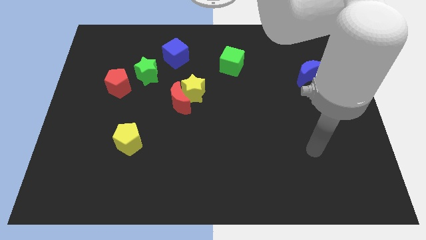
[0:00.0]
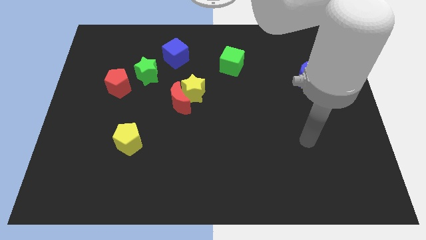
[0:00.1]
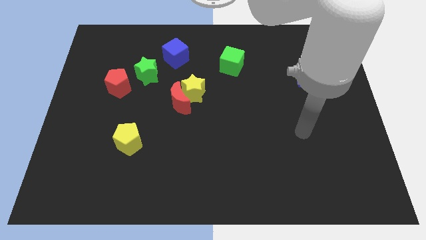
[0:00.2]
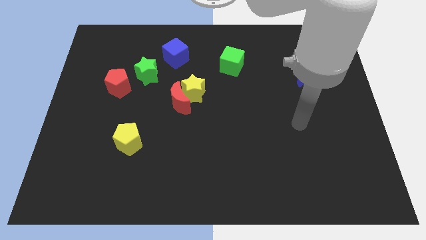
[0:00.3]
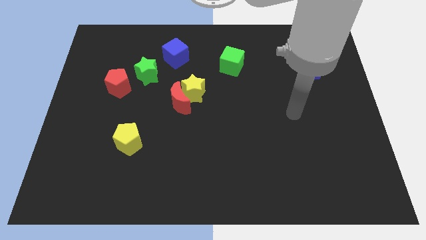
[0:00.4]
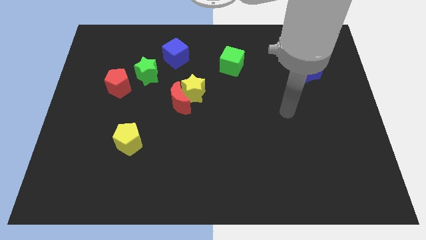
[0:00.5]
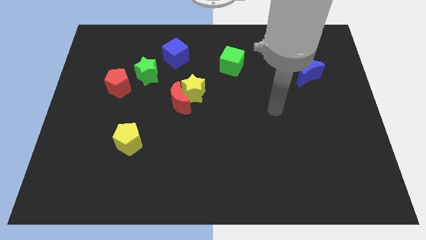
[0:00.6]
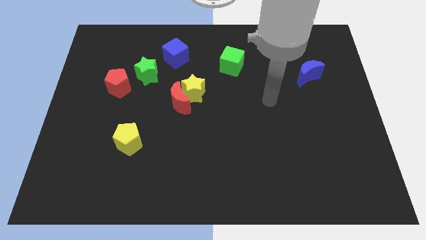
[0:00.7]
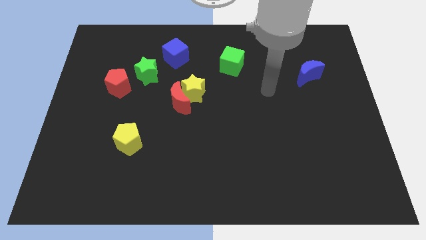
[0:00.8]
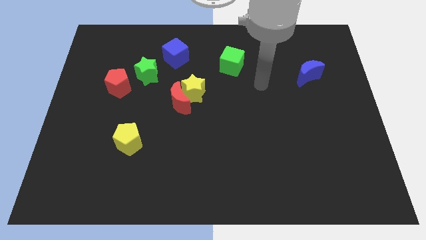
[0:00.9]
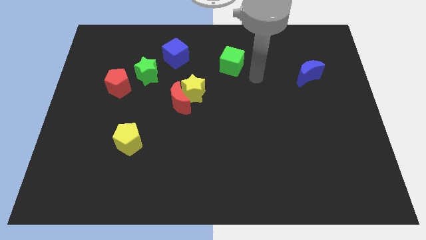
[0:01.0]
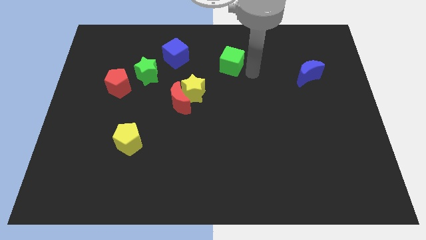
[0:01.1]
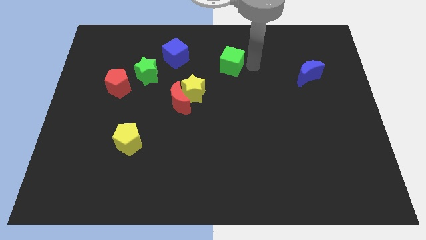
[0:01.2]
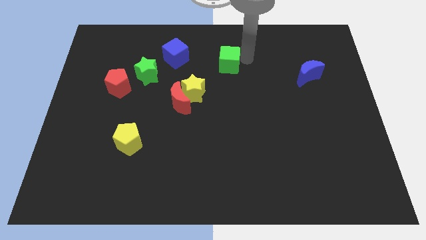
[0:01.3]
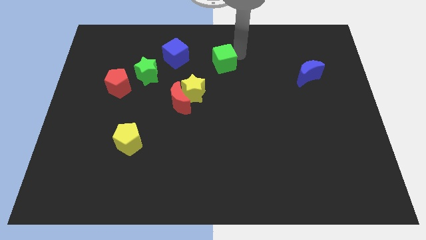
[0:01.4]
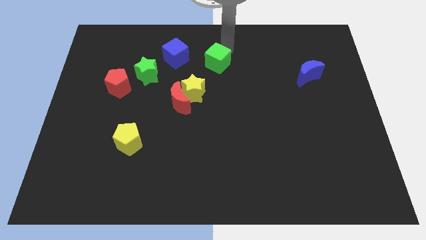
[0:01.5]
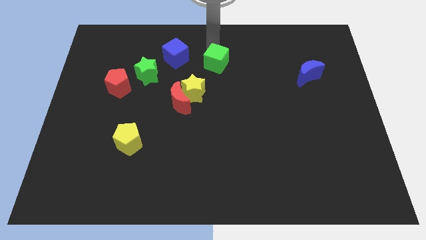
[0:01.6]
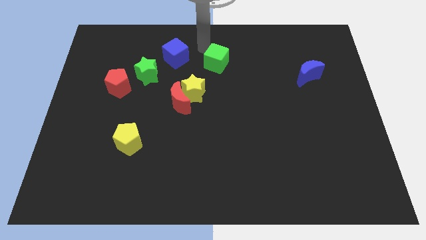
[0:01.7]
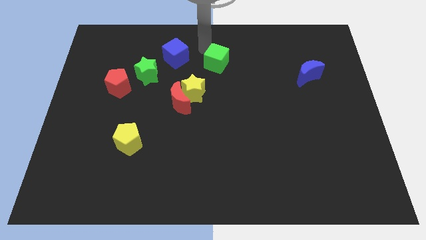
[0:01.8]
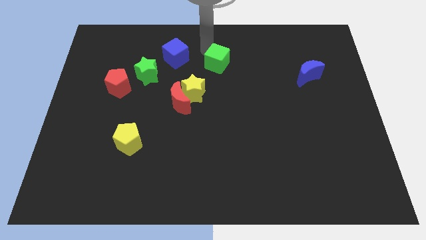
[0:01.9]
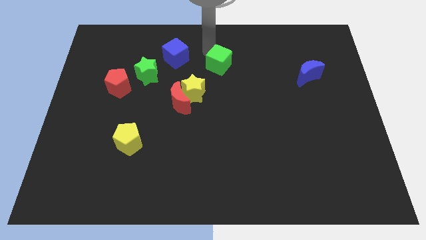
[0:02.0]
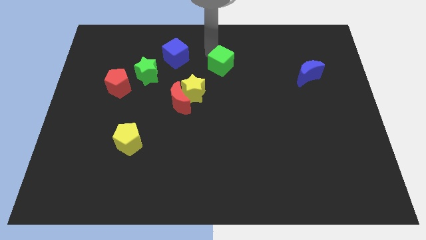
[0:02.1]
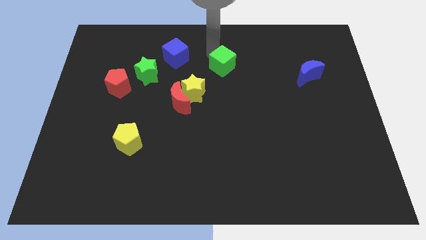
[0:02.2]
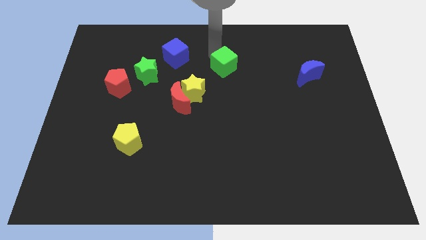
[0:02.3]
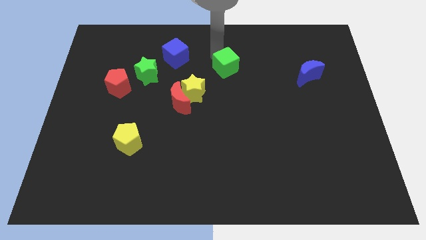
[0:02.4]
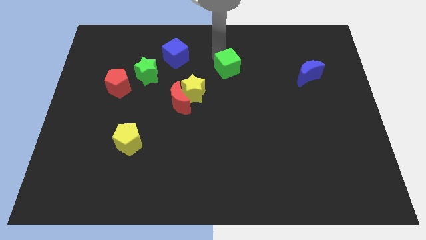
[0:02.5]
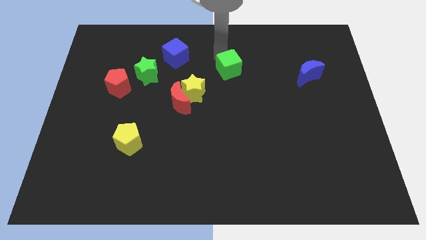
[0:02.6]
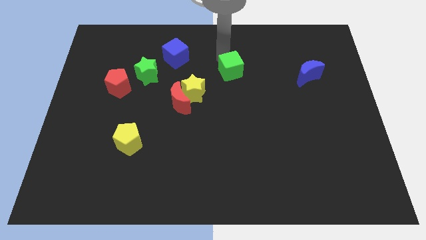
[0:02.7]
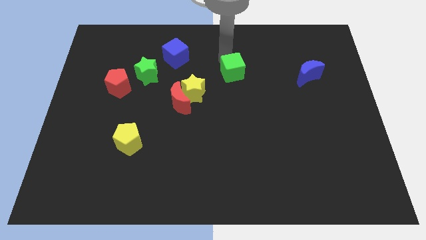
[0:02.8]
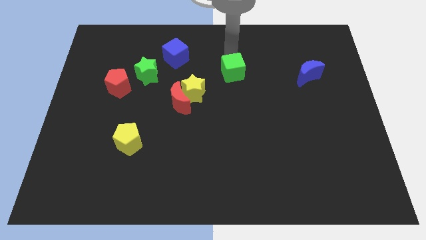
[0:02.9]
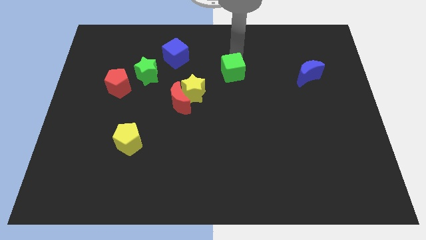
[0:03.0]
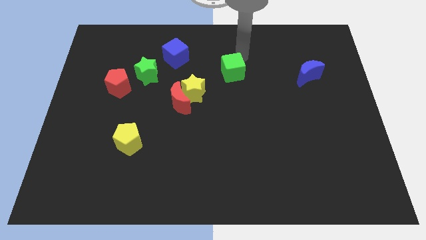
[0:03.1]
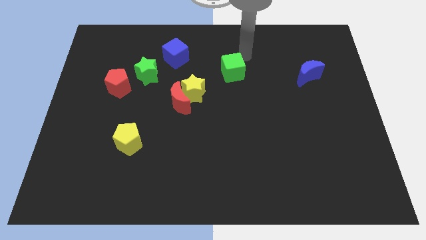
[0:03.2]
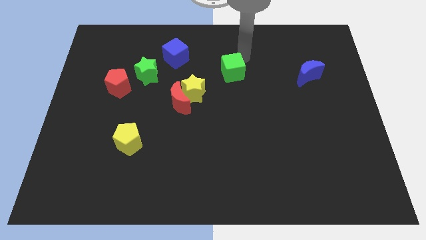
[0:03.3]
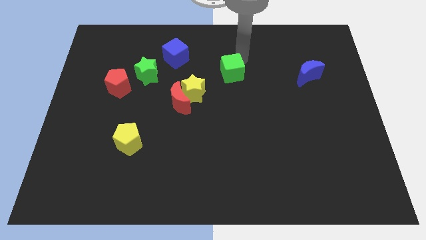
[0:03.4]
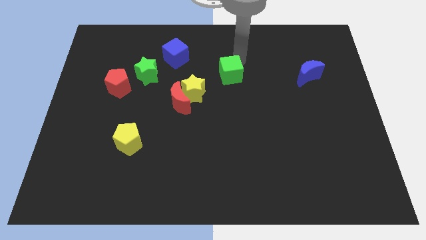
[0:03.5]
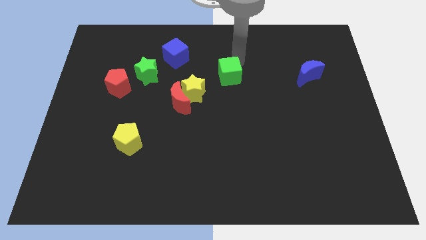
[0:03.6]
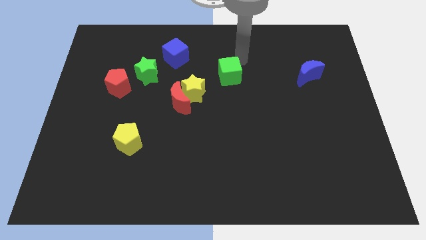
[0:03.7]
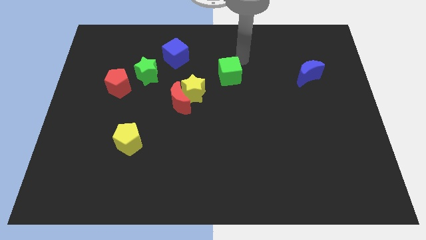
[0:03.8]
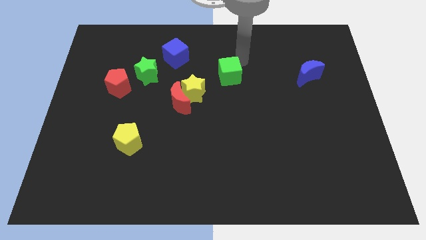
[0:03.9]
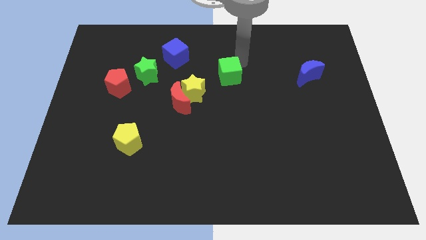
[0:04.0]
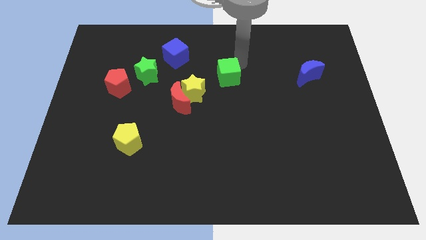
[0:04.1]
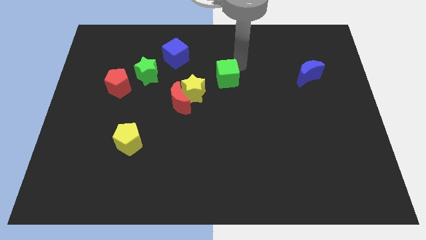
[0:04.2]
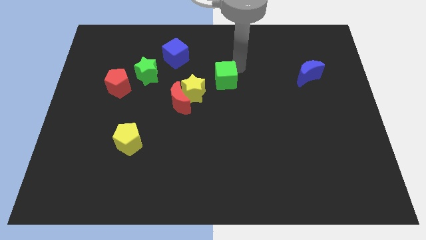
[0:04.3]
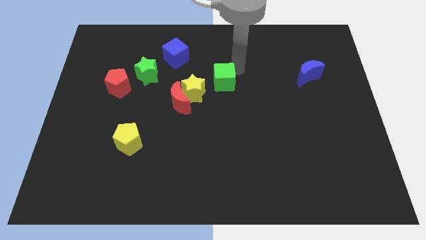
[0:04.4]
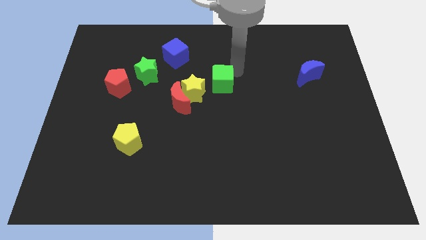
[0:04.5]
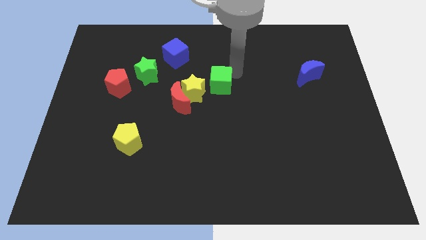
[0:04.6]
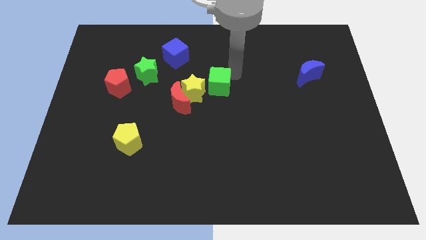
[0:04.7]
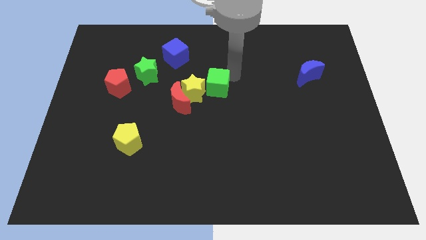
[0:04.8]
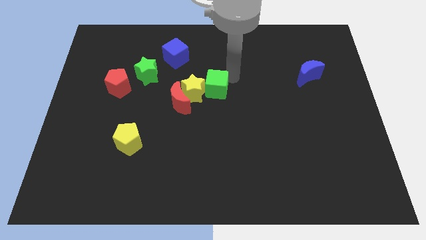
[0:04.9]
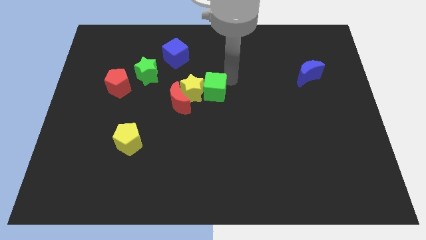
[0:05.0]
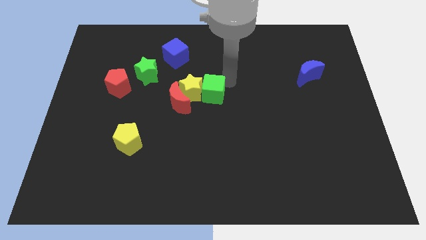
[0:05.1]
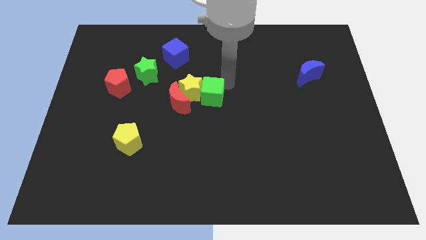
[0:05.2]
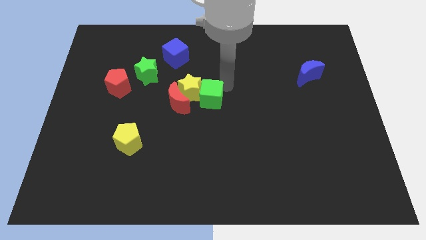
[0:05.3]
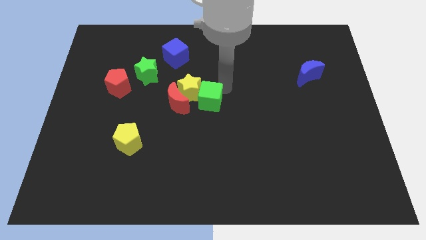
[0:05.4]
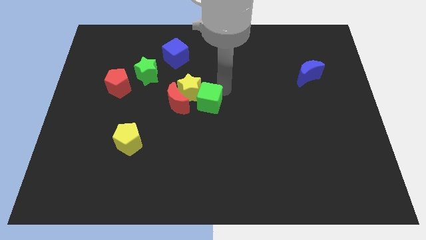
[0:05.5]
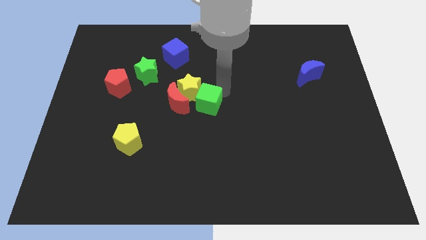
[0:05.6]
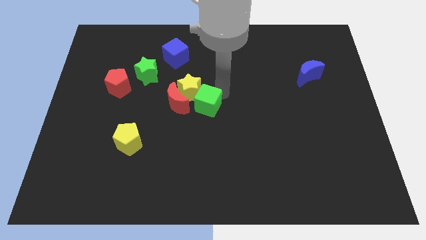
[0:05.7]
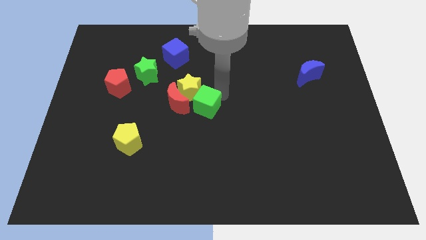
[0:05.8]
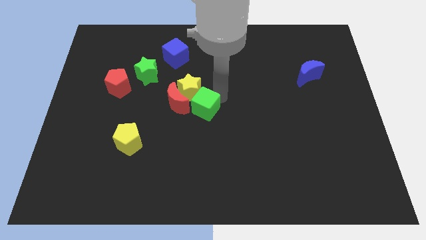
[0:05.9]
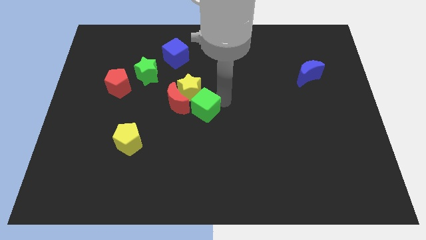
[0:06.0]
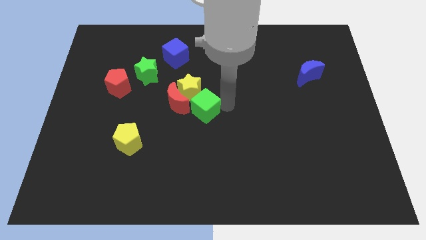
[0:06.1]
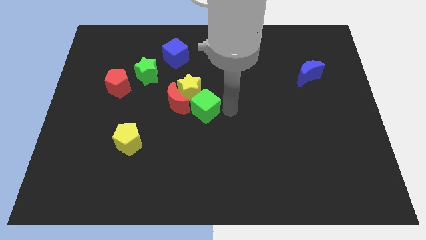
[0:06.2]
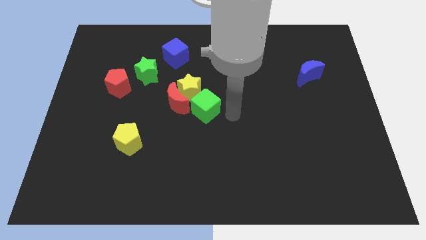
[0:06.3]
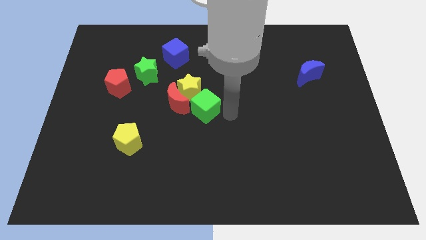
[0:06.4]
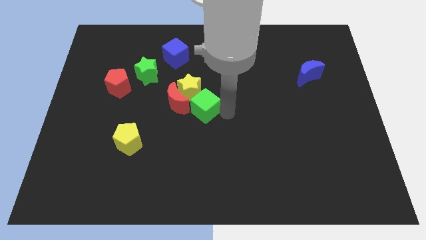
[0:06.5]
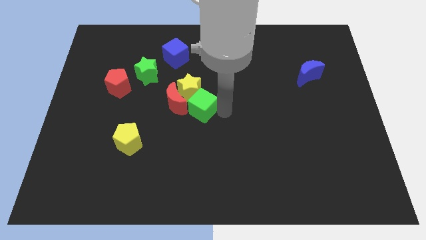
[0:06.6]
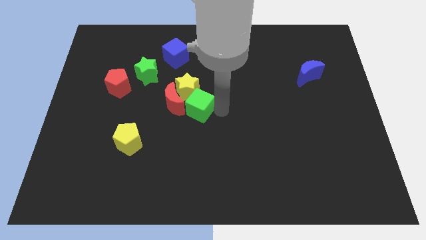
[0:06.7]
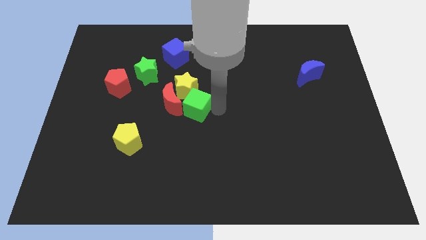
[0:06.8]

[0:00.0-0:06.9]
move the green cube towards the red moon

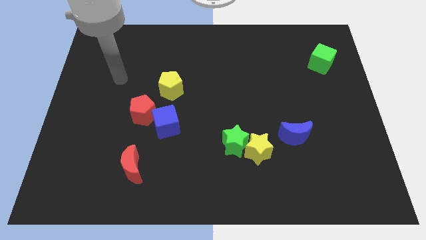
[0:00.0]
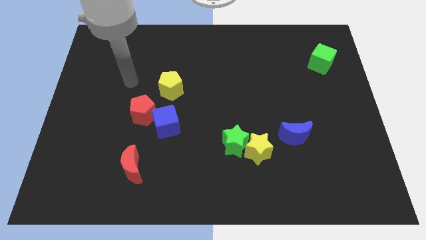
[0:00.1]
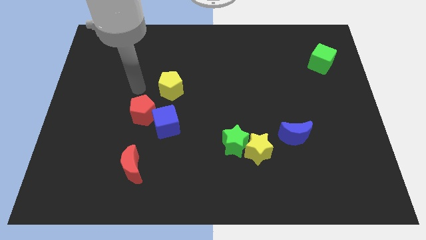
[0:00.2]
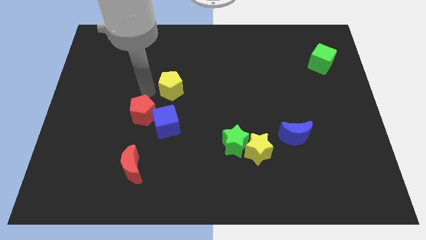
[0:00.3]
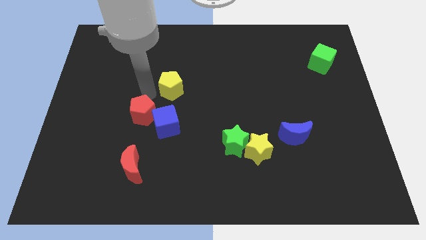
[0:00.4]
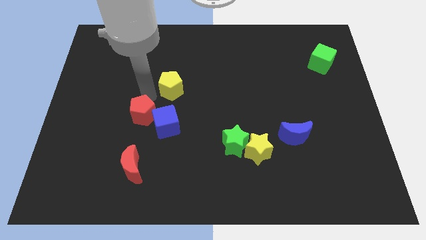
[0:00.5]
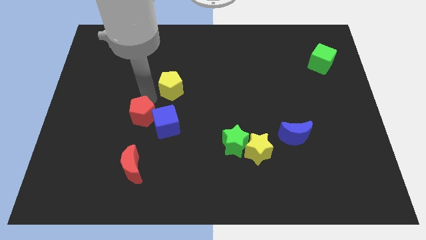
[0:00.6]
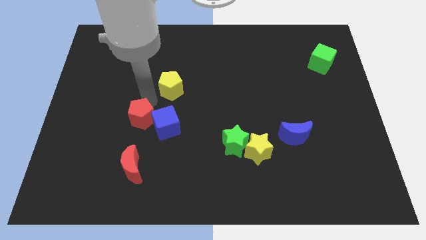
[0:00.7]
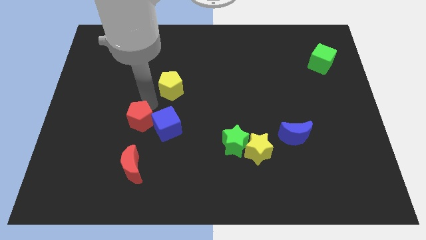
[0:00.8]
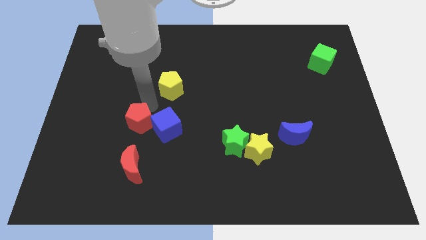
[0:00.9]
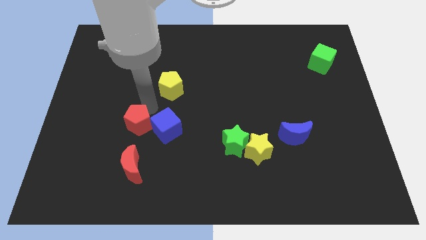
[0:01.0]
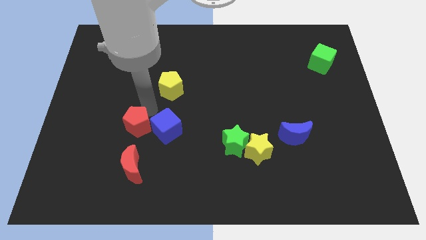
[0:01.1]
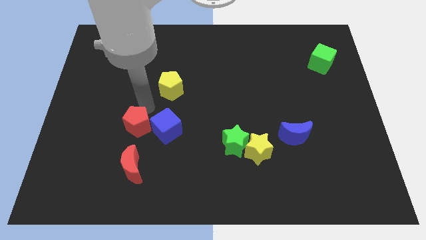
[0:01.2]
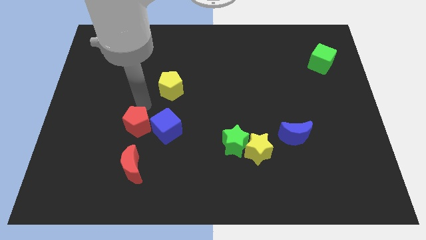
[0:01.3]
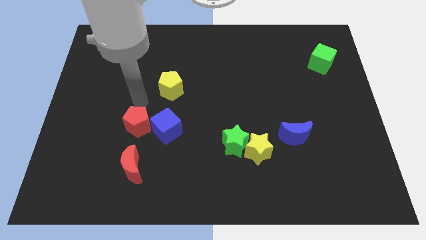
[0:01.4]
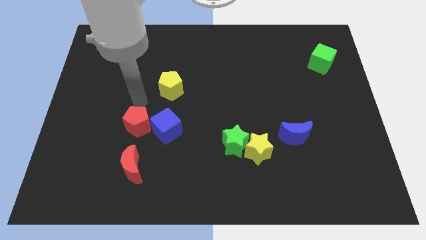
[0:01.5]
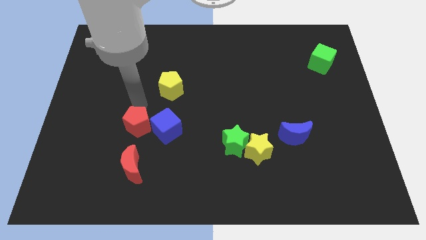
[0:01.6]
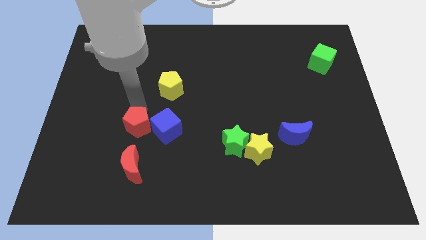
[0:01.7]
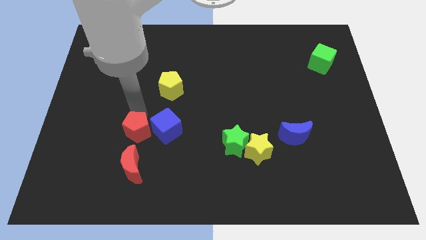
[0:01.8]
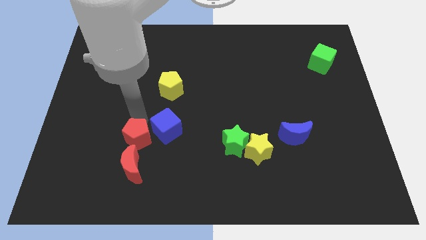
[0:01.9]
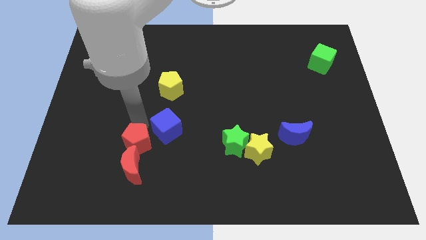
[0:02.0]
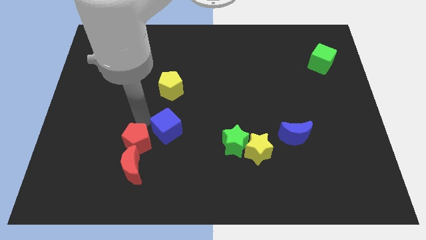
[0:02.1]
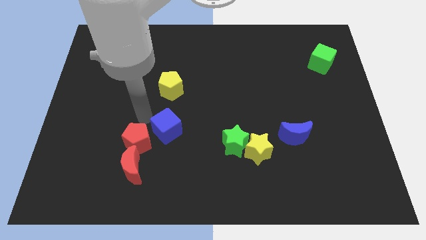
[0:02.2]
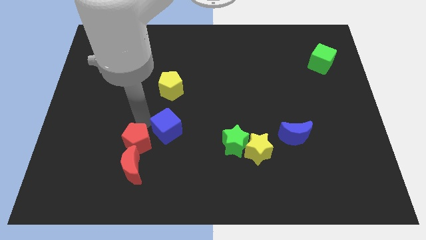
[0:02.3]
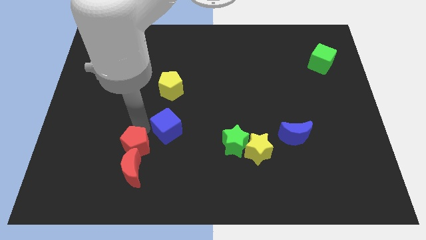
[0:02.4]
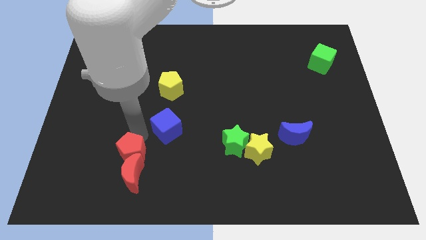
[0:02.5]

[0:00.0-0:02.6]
slide the red pentagon to the red moon
